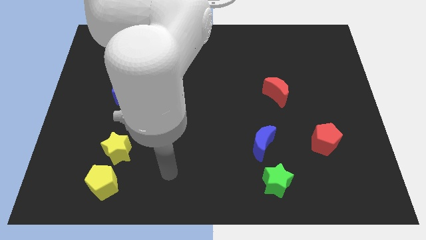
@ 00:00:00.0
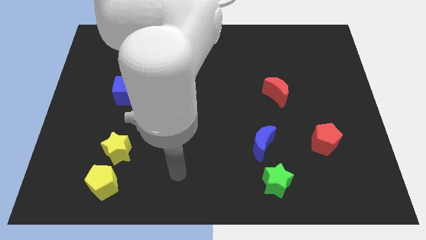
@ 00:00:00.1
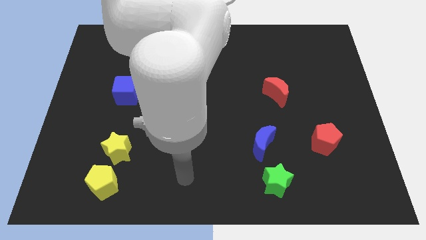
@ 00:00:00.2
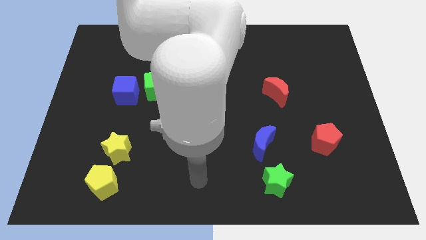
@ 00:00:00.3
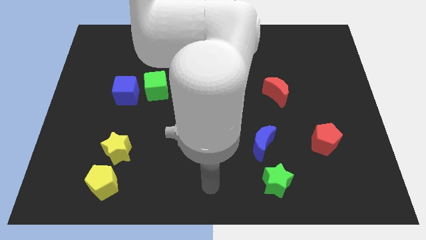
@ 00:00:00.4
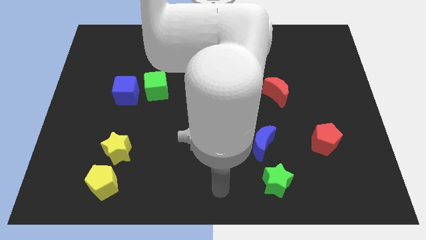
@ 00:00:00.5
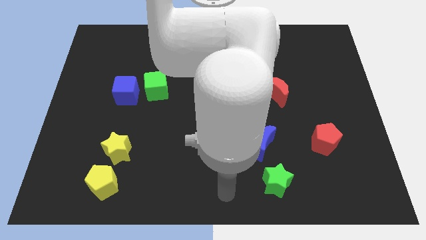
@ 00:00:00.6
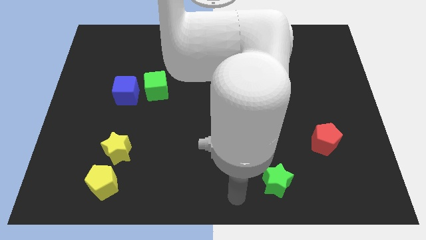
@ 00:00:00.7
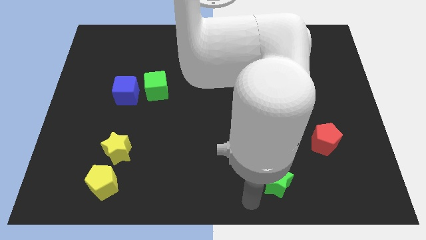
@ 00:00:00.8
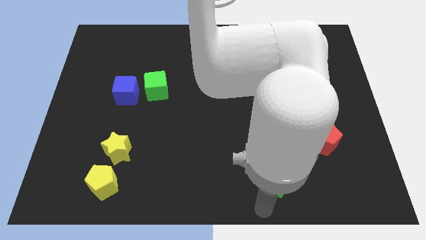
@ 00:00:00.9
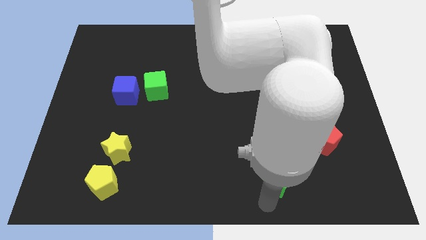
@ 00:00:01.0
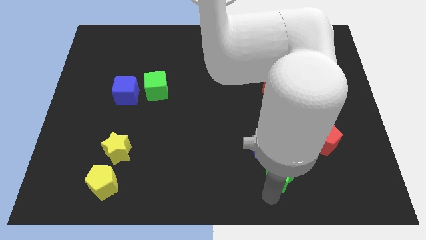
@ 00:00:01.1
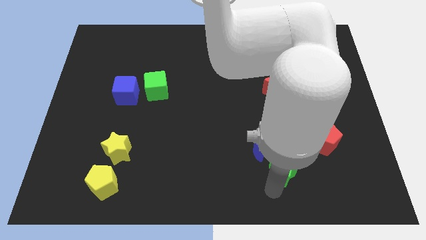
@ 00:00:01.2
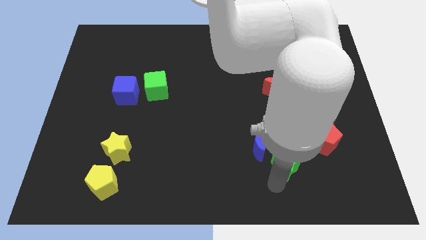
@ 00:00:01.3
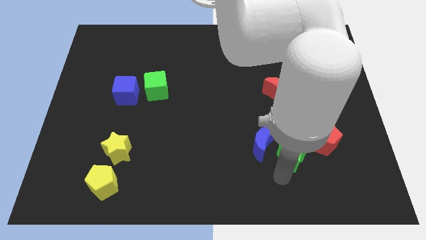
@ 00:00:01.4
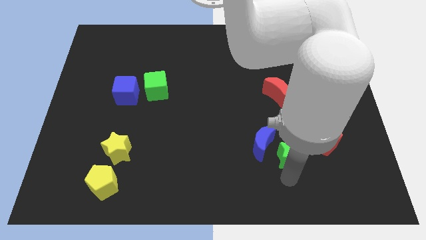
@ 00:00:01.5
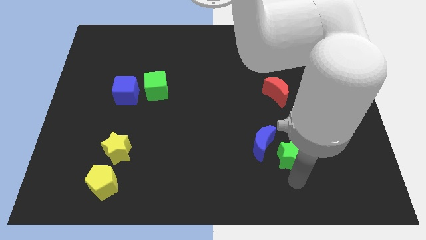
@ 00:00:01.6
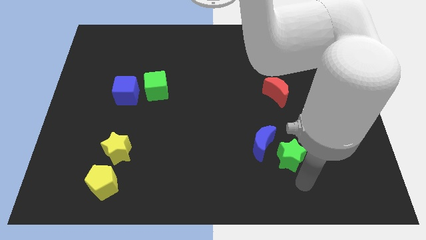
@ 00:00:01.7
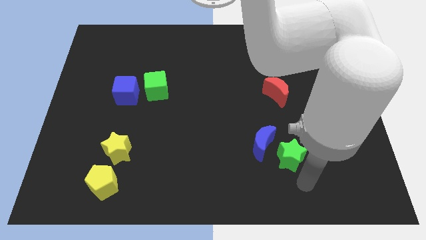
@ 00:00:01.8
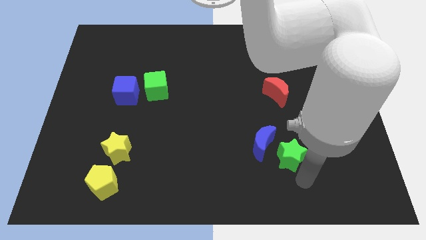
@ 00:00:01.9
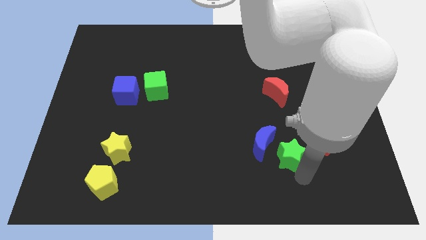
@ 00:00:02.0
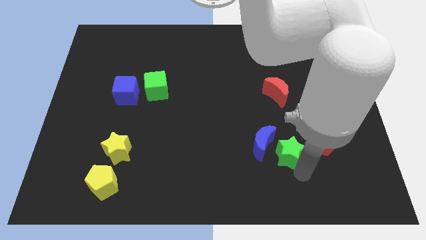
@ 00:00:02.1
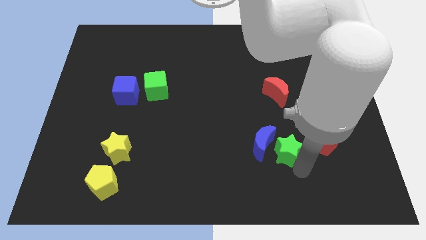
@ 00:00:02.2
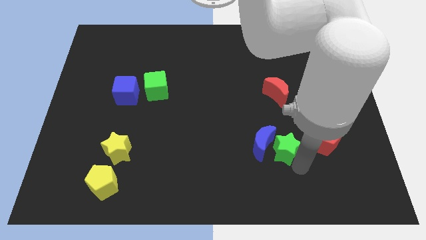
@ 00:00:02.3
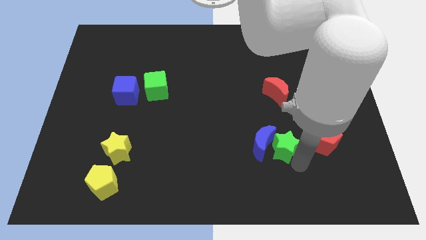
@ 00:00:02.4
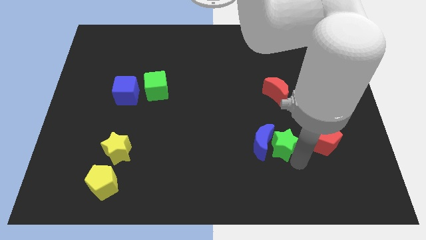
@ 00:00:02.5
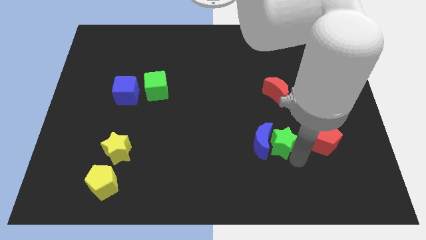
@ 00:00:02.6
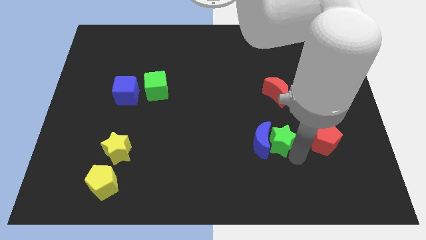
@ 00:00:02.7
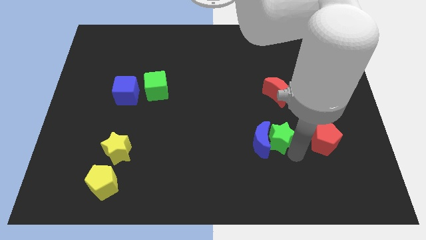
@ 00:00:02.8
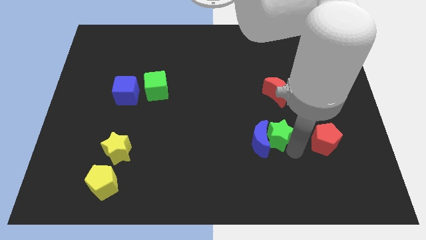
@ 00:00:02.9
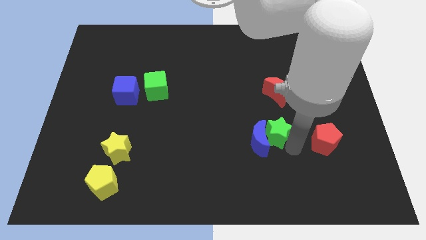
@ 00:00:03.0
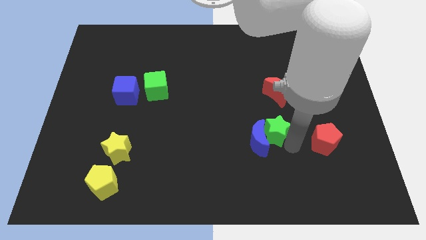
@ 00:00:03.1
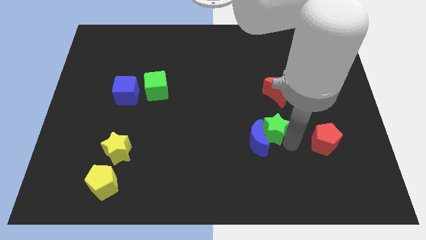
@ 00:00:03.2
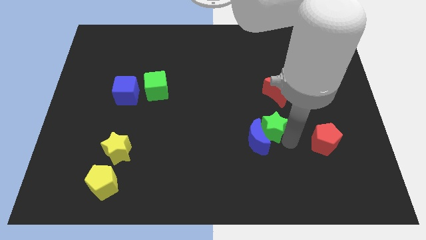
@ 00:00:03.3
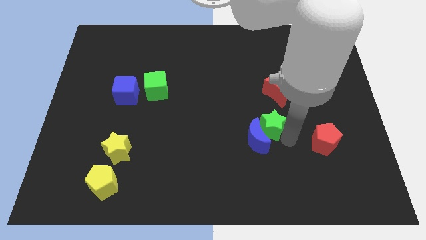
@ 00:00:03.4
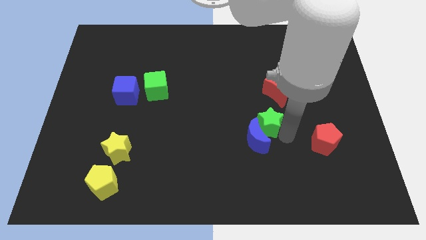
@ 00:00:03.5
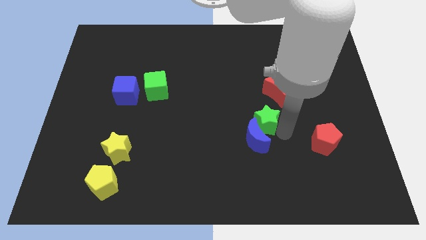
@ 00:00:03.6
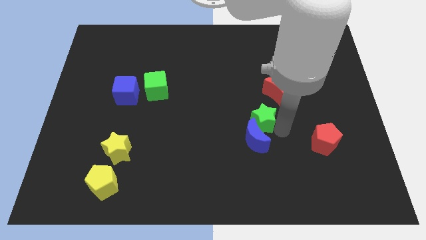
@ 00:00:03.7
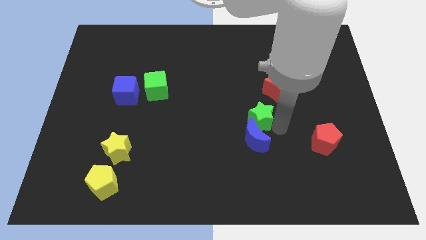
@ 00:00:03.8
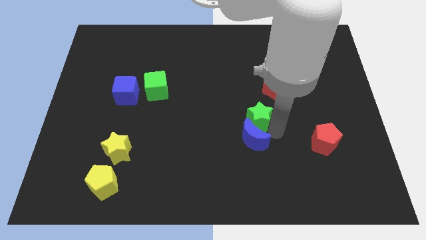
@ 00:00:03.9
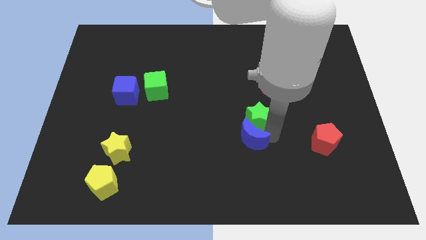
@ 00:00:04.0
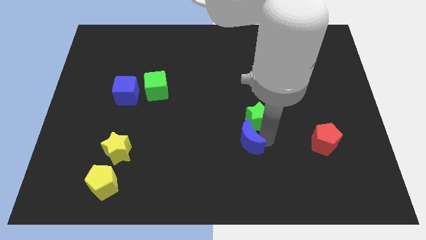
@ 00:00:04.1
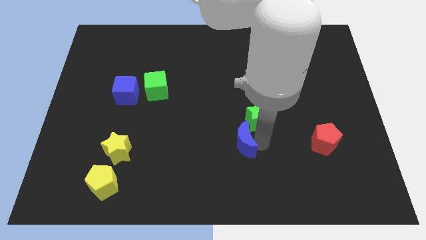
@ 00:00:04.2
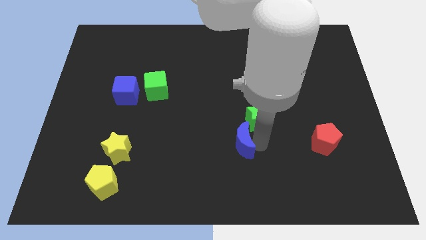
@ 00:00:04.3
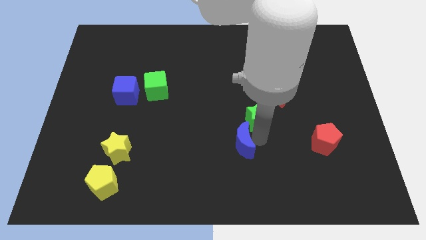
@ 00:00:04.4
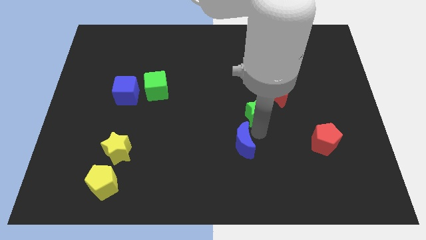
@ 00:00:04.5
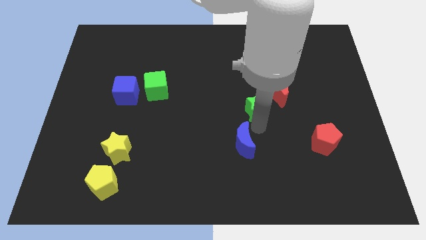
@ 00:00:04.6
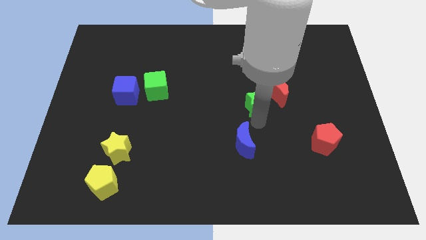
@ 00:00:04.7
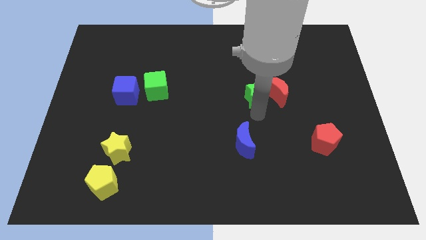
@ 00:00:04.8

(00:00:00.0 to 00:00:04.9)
move the green star upwards

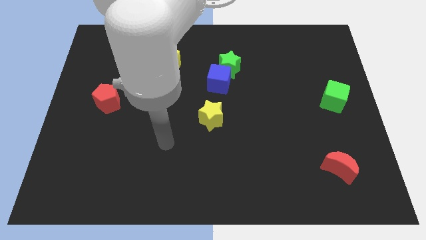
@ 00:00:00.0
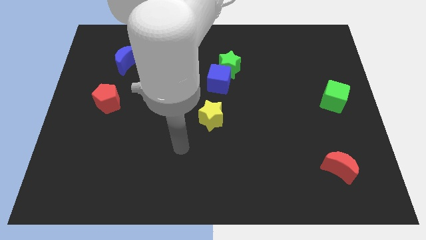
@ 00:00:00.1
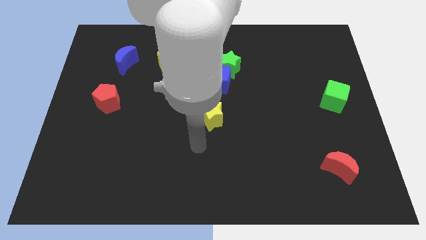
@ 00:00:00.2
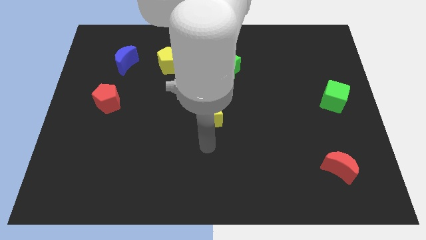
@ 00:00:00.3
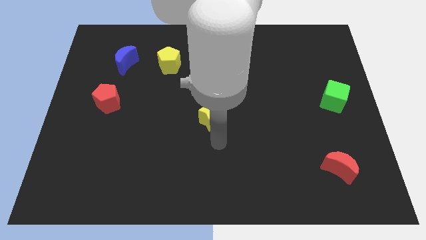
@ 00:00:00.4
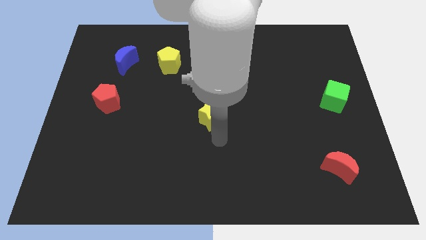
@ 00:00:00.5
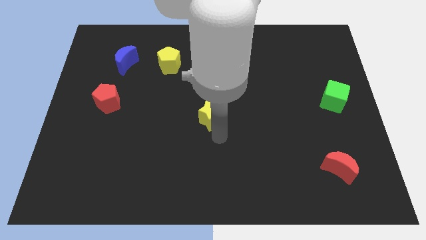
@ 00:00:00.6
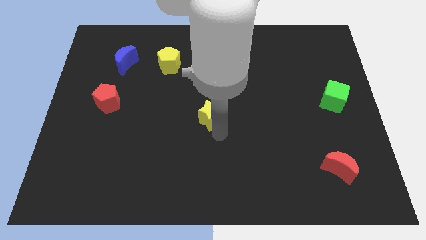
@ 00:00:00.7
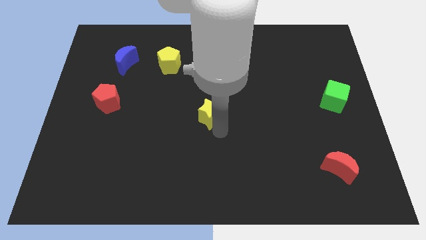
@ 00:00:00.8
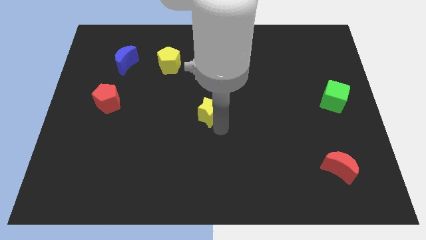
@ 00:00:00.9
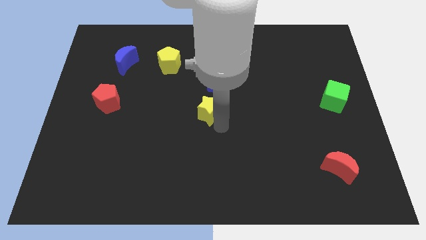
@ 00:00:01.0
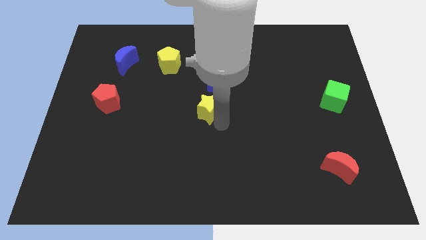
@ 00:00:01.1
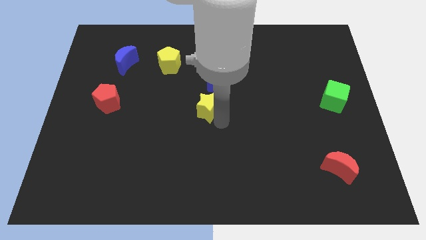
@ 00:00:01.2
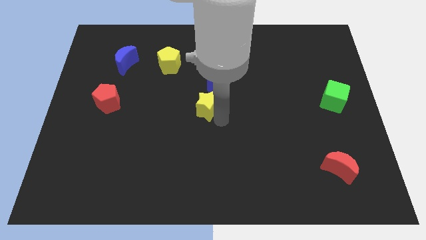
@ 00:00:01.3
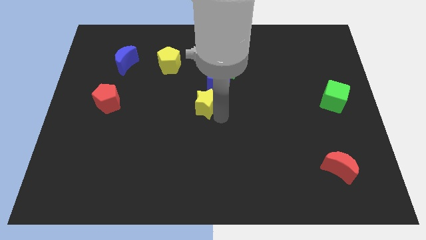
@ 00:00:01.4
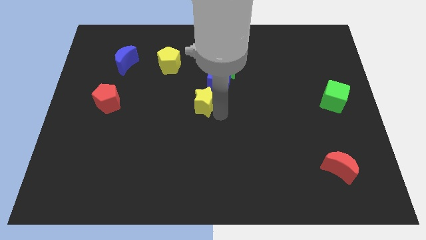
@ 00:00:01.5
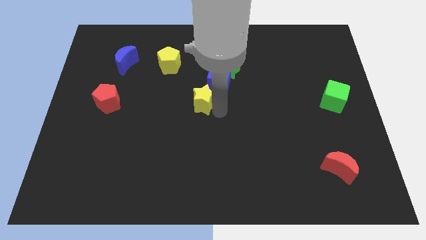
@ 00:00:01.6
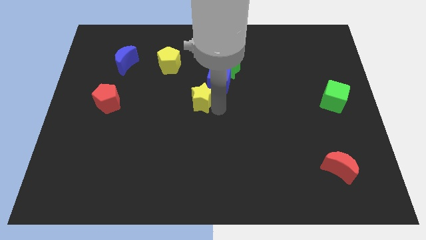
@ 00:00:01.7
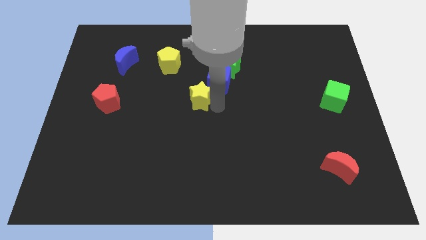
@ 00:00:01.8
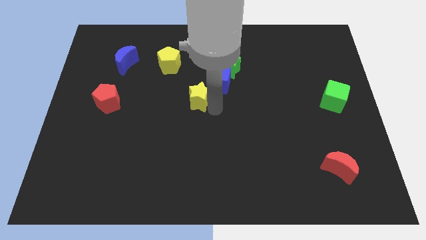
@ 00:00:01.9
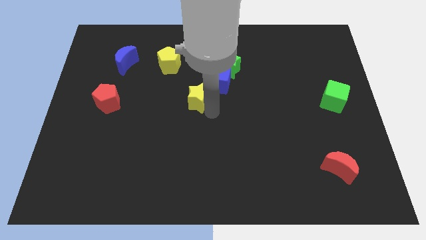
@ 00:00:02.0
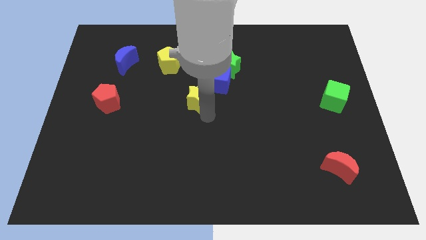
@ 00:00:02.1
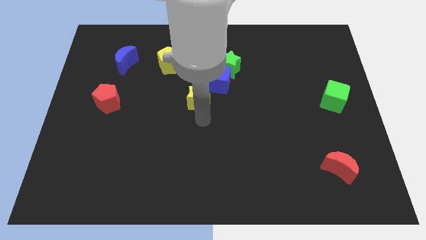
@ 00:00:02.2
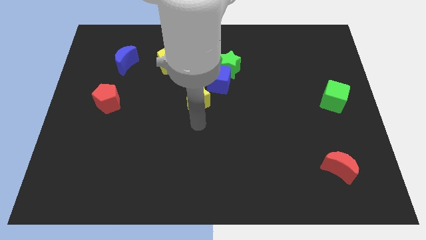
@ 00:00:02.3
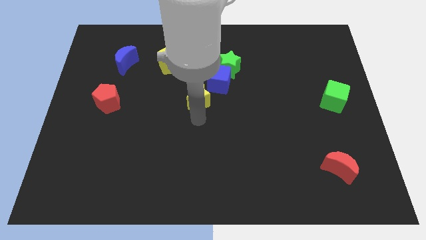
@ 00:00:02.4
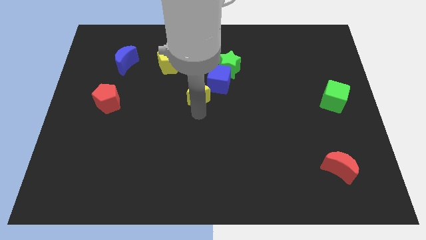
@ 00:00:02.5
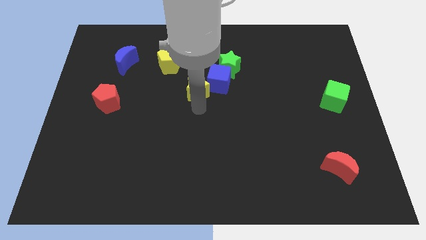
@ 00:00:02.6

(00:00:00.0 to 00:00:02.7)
move the yellow star a little bit up

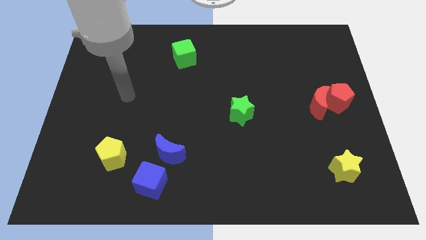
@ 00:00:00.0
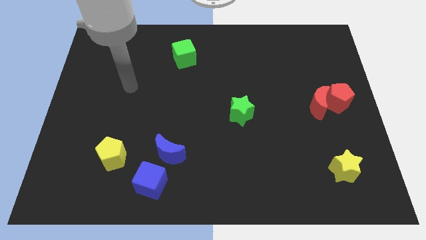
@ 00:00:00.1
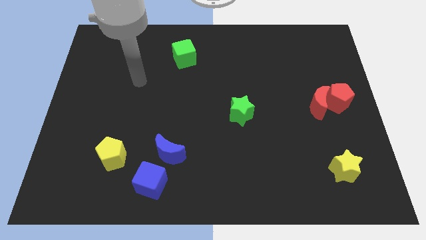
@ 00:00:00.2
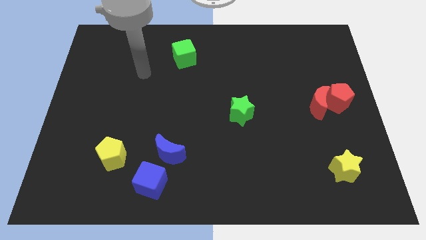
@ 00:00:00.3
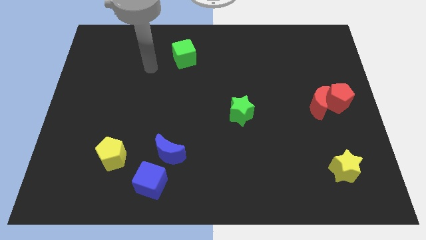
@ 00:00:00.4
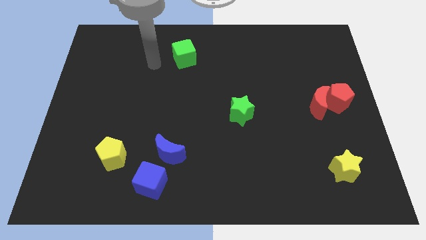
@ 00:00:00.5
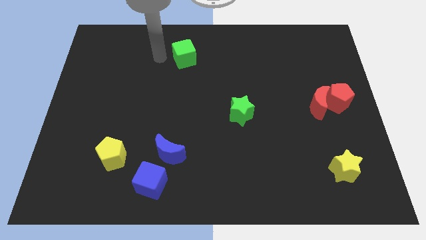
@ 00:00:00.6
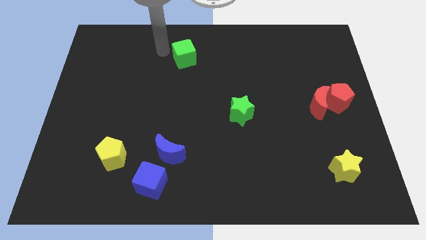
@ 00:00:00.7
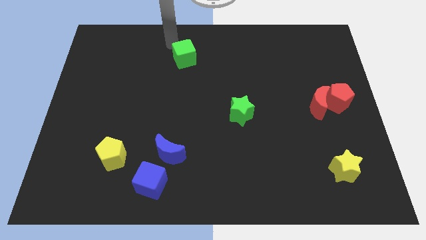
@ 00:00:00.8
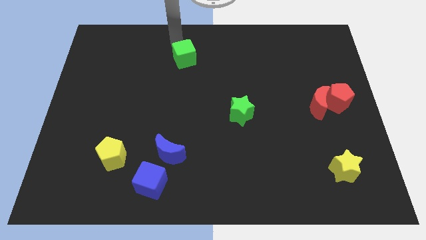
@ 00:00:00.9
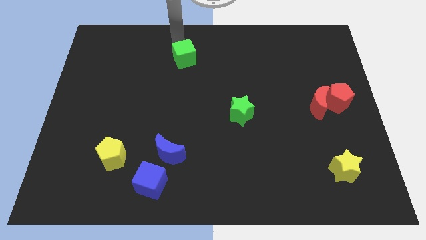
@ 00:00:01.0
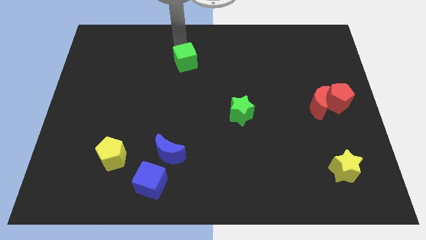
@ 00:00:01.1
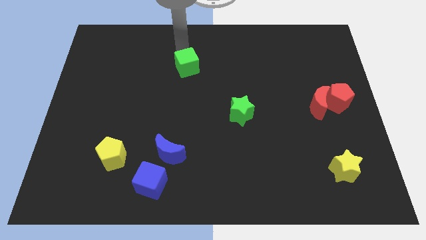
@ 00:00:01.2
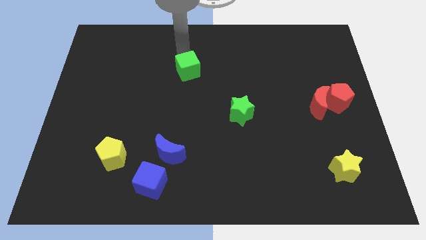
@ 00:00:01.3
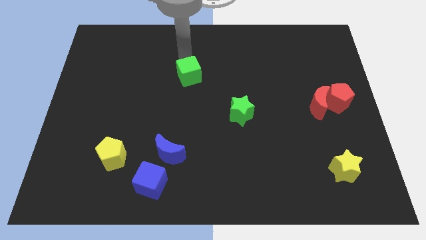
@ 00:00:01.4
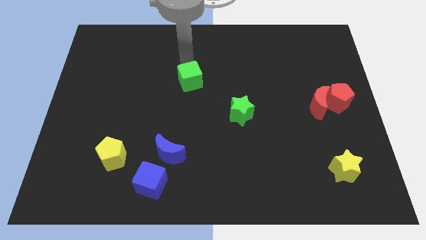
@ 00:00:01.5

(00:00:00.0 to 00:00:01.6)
slightly move the green cube downwards
